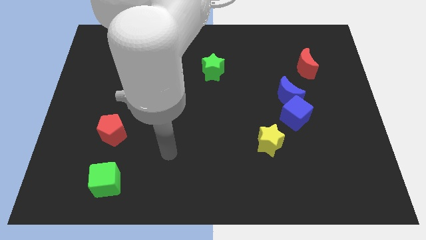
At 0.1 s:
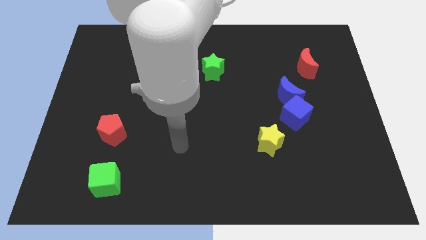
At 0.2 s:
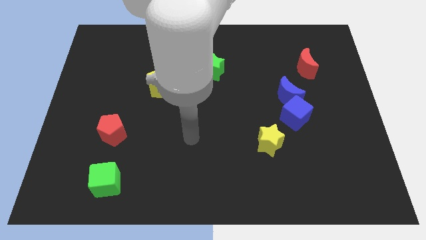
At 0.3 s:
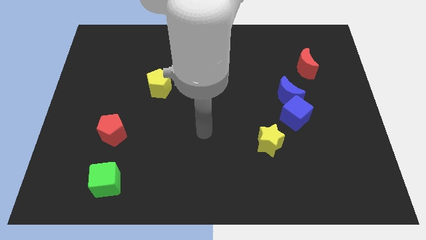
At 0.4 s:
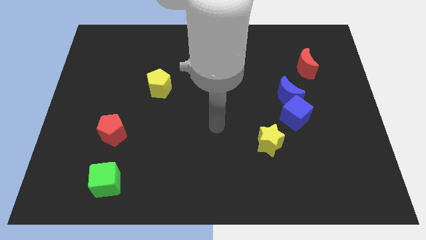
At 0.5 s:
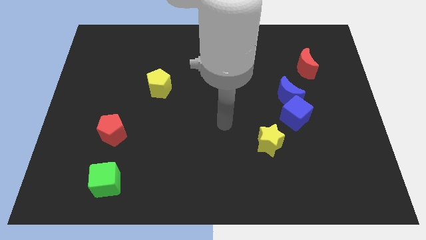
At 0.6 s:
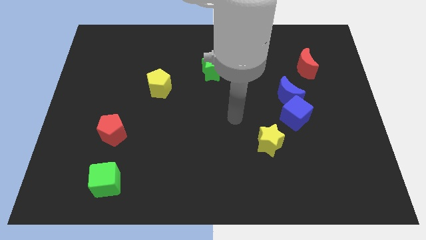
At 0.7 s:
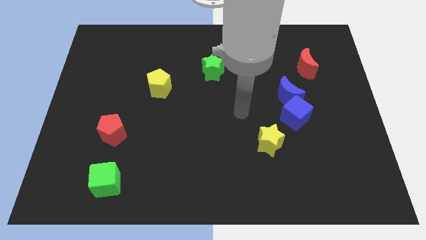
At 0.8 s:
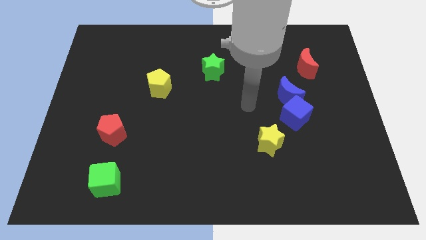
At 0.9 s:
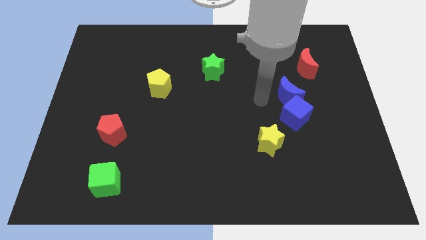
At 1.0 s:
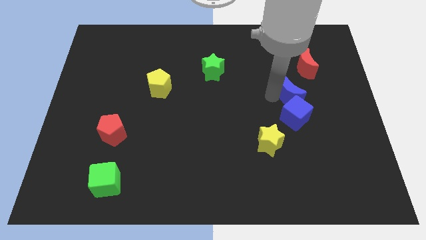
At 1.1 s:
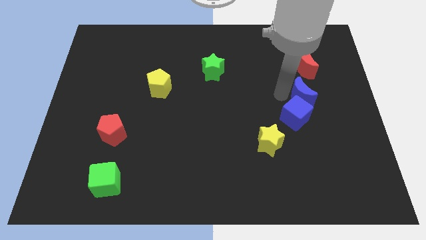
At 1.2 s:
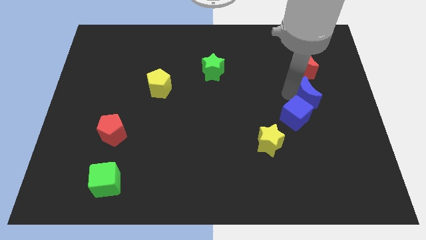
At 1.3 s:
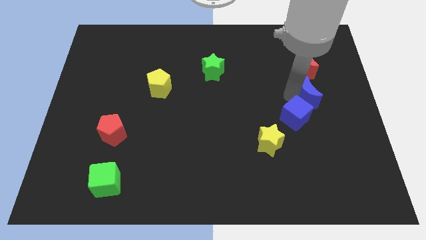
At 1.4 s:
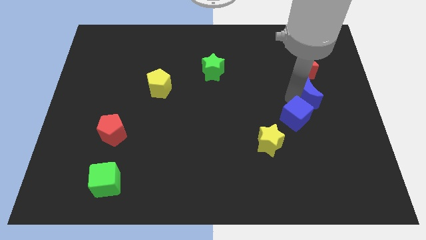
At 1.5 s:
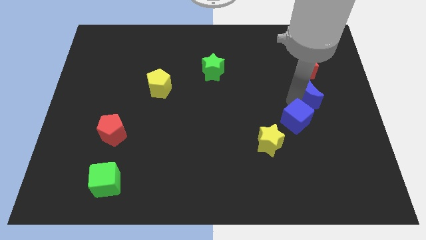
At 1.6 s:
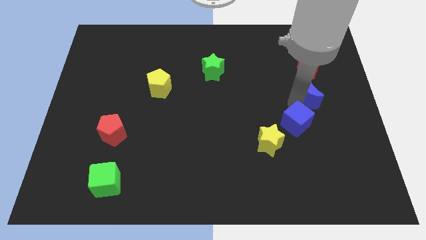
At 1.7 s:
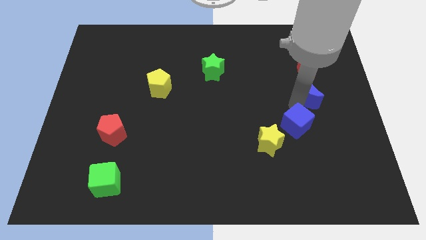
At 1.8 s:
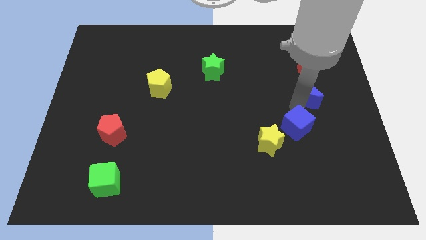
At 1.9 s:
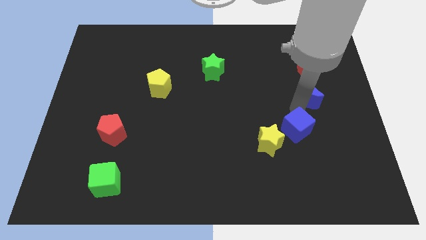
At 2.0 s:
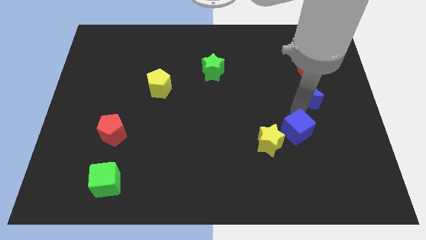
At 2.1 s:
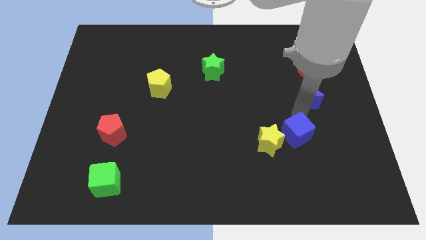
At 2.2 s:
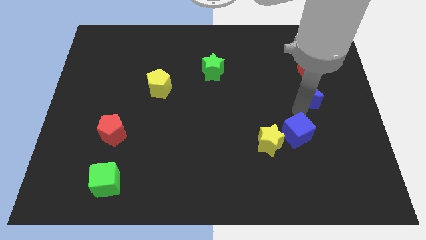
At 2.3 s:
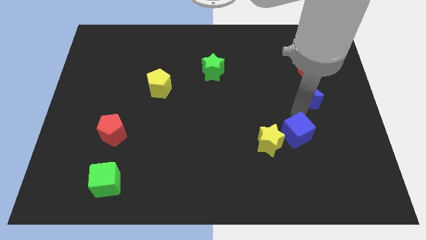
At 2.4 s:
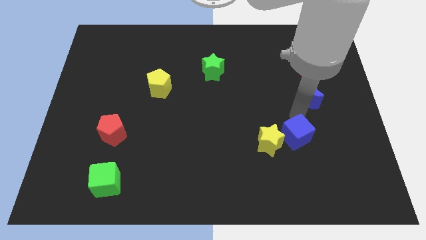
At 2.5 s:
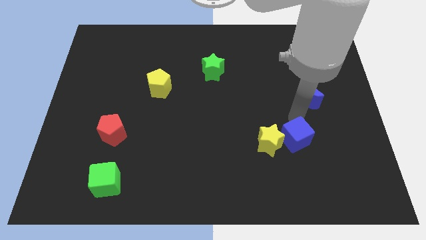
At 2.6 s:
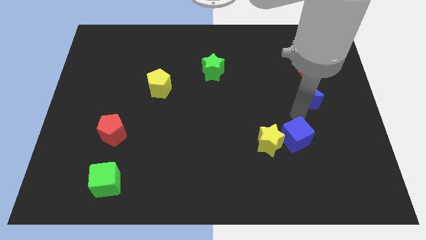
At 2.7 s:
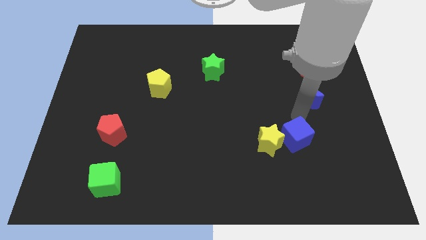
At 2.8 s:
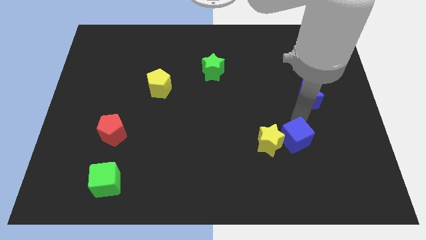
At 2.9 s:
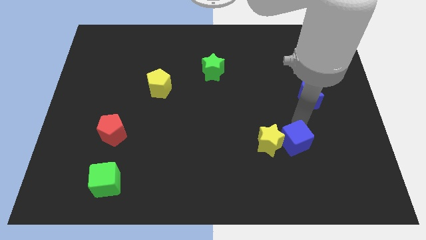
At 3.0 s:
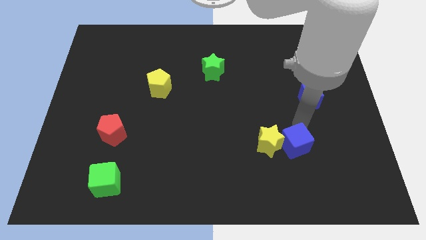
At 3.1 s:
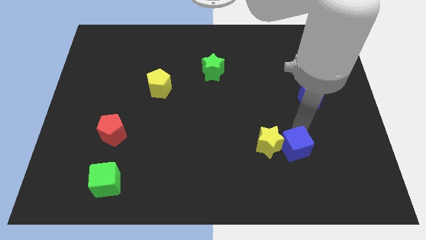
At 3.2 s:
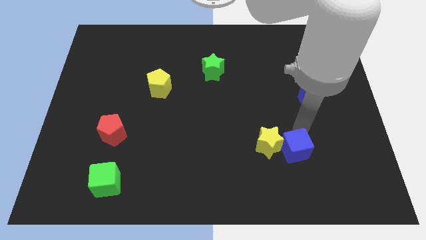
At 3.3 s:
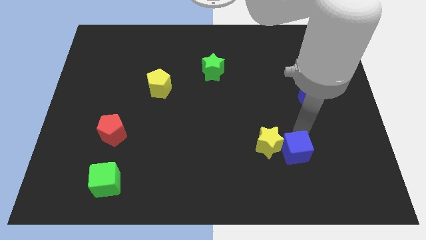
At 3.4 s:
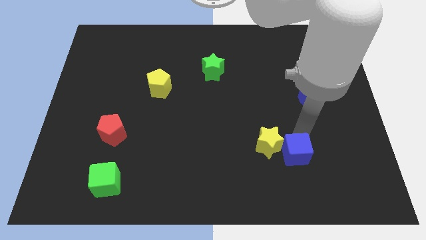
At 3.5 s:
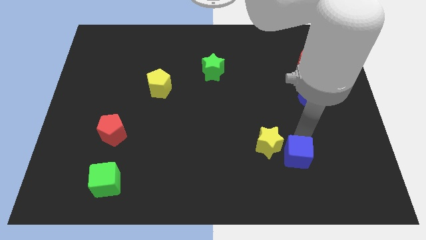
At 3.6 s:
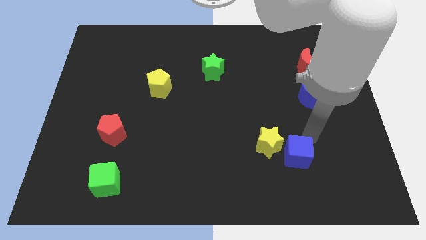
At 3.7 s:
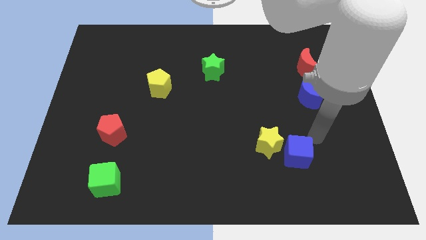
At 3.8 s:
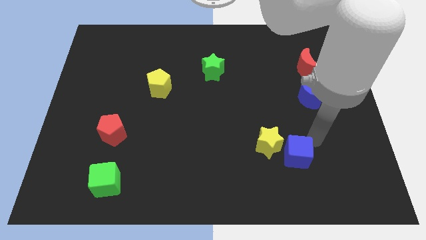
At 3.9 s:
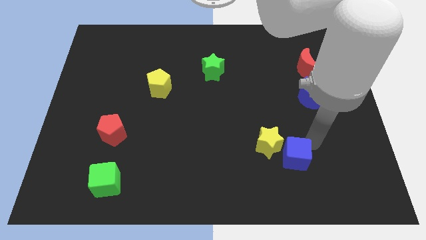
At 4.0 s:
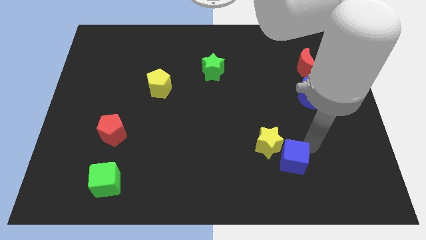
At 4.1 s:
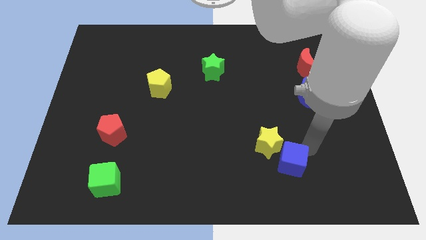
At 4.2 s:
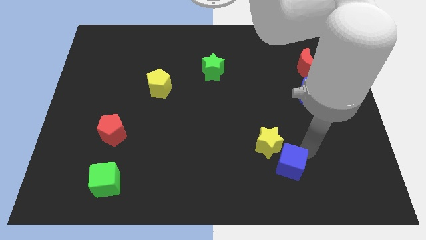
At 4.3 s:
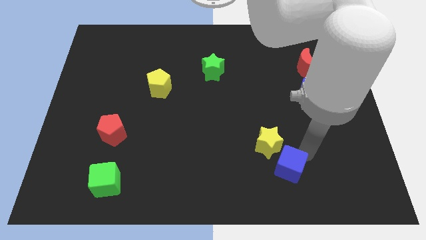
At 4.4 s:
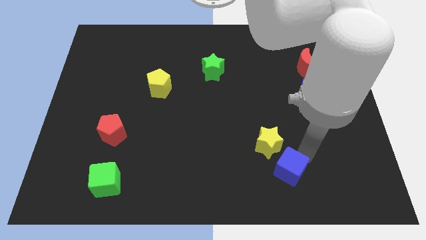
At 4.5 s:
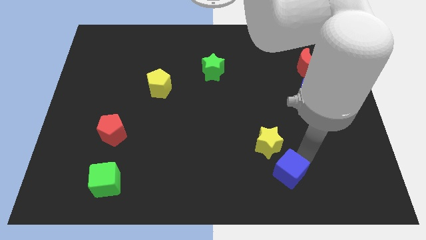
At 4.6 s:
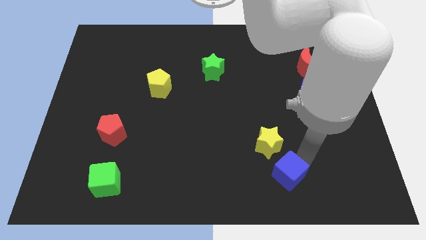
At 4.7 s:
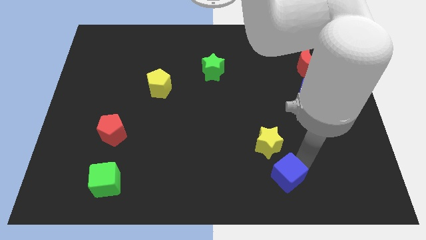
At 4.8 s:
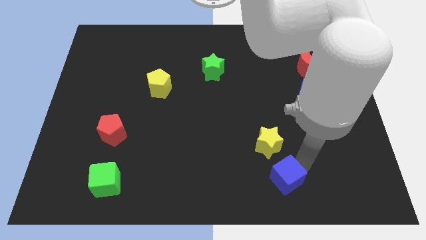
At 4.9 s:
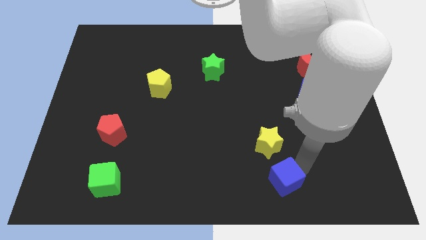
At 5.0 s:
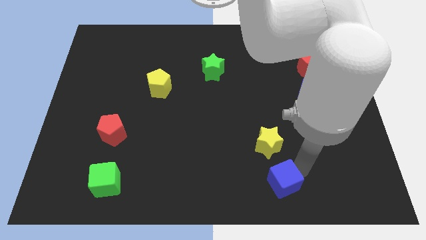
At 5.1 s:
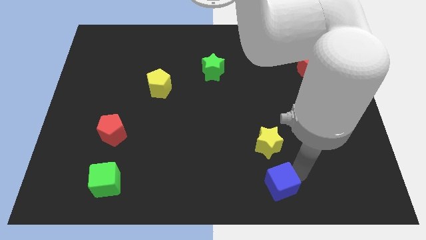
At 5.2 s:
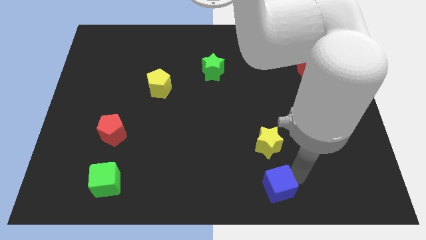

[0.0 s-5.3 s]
slide the blue cube to the bottom

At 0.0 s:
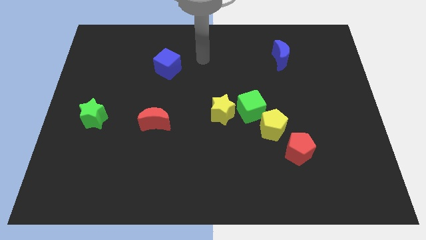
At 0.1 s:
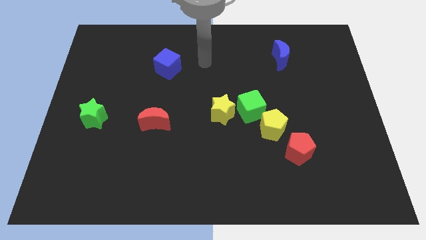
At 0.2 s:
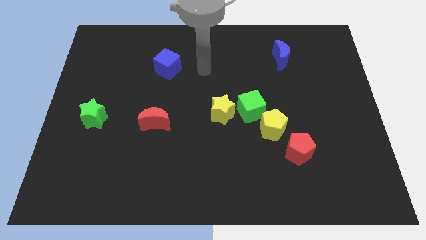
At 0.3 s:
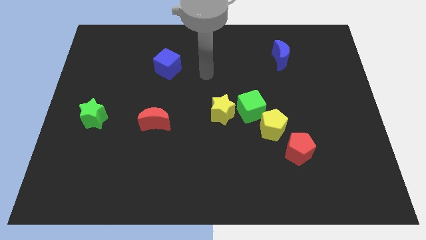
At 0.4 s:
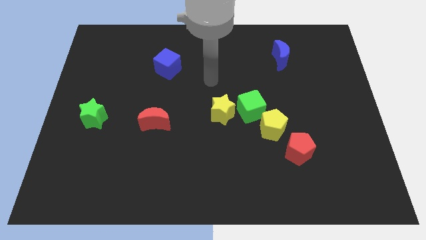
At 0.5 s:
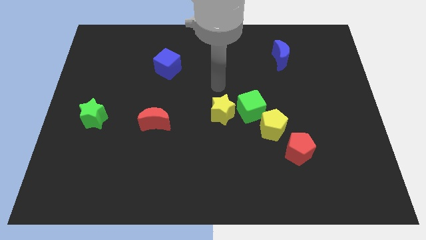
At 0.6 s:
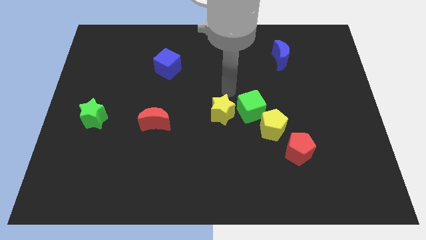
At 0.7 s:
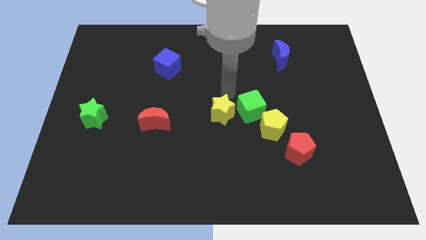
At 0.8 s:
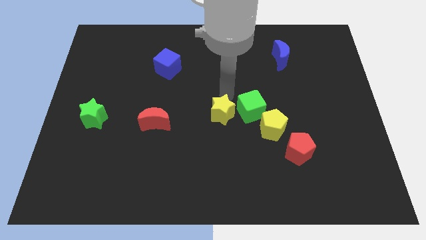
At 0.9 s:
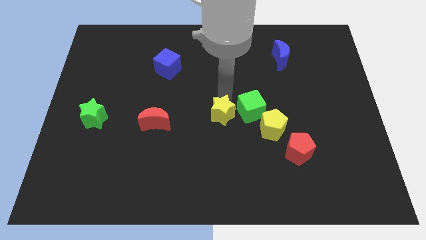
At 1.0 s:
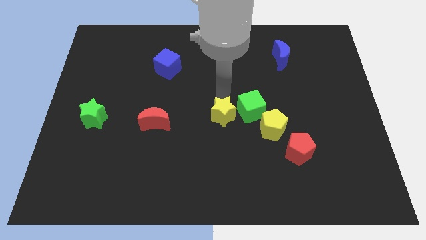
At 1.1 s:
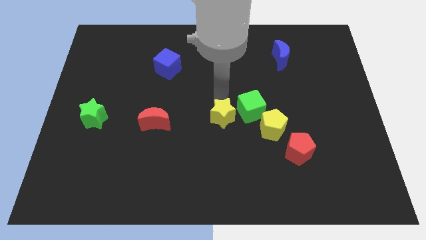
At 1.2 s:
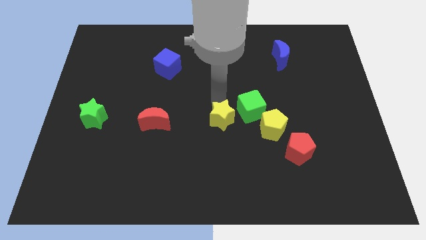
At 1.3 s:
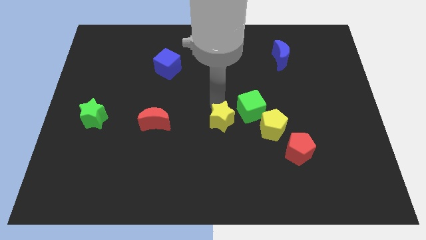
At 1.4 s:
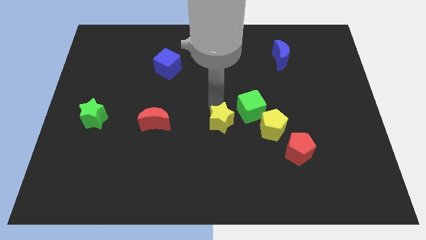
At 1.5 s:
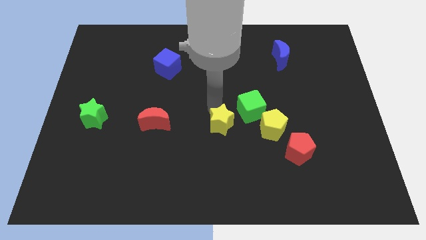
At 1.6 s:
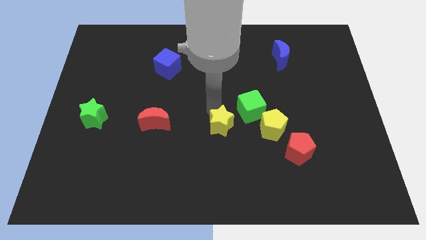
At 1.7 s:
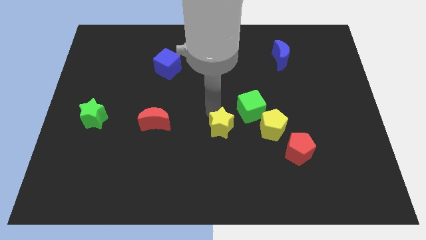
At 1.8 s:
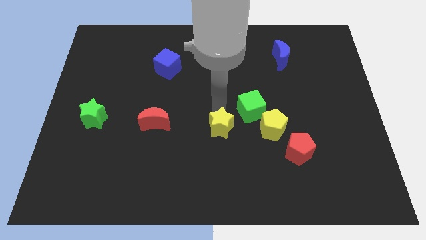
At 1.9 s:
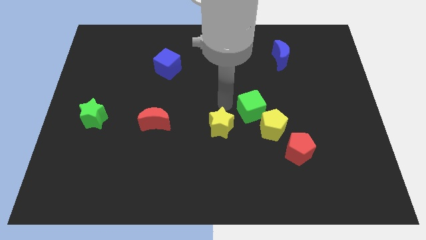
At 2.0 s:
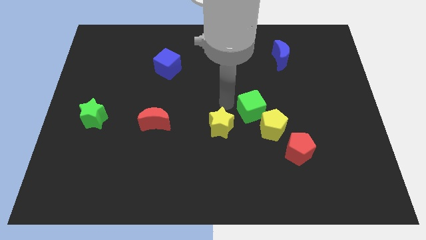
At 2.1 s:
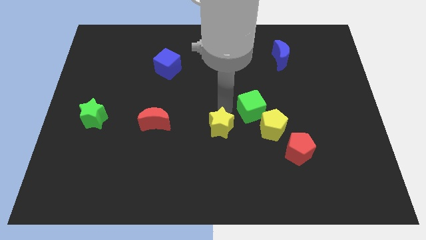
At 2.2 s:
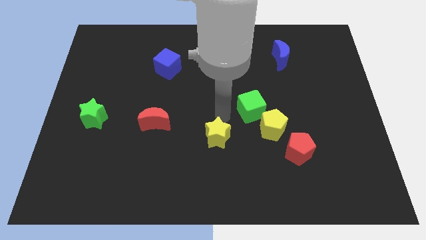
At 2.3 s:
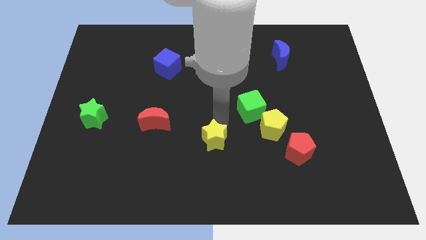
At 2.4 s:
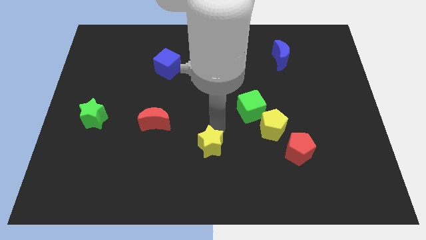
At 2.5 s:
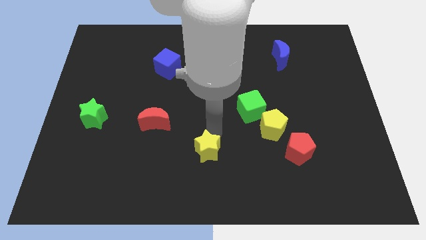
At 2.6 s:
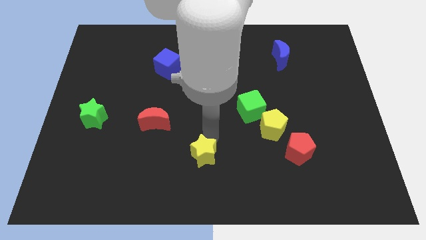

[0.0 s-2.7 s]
move the yellow star to the bottom side
